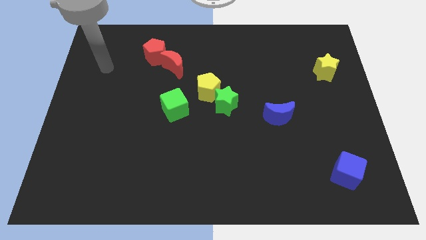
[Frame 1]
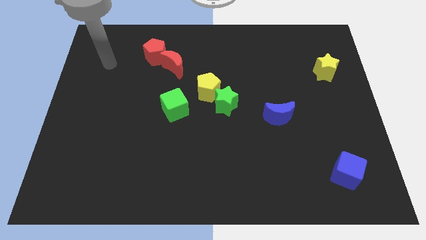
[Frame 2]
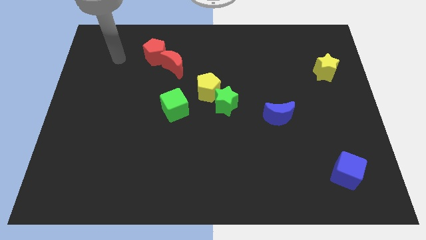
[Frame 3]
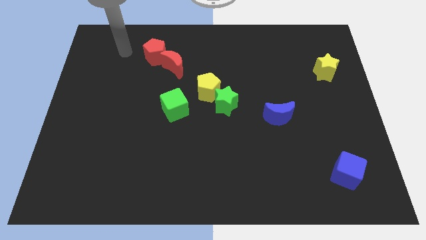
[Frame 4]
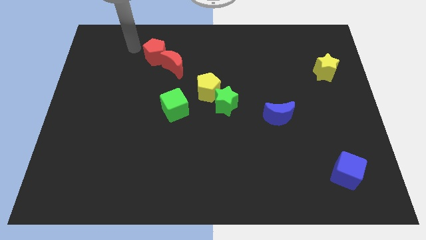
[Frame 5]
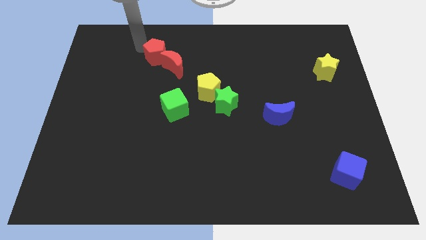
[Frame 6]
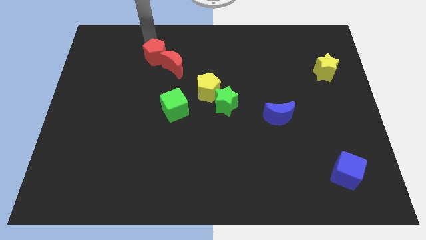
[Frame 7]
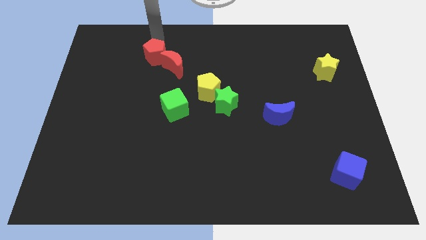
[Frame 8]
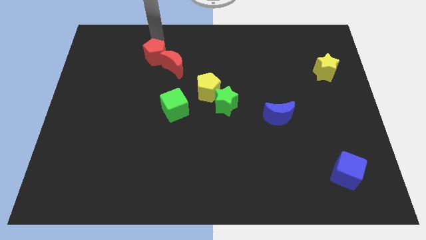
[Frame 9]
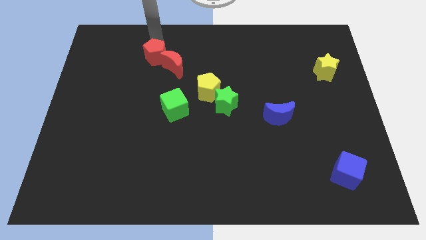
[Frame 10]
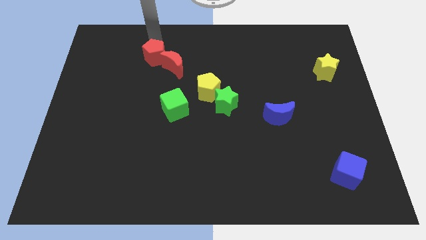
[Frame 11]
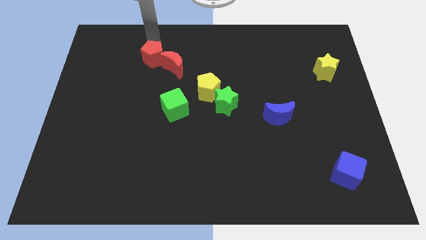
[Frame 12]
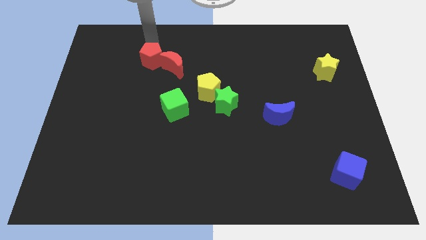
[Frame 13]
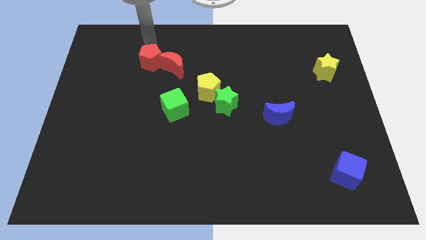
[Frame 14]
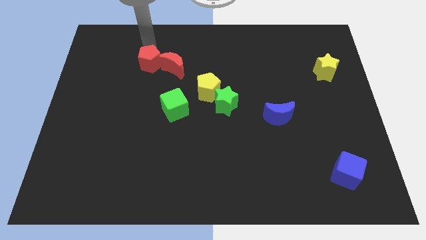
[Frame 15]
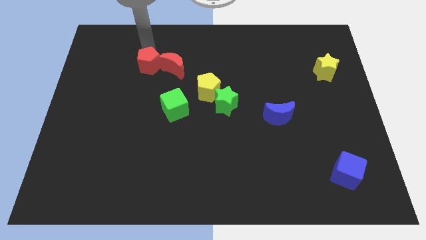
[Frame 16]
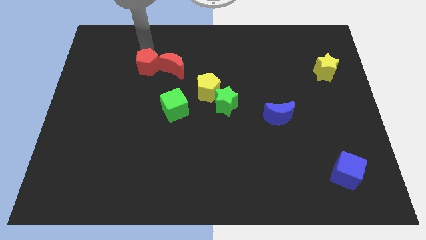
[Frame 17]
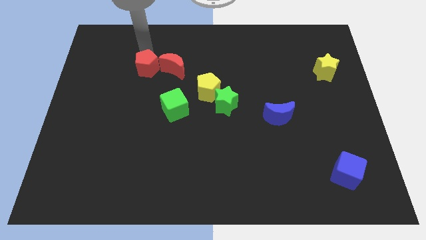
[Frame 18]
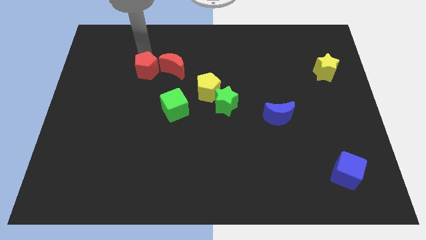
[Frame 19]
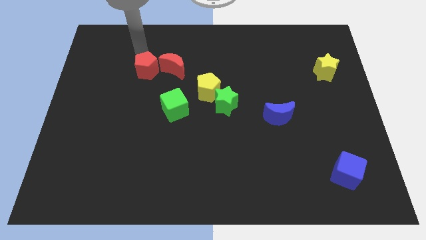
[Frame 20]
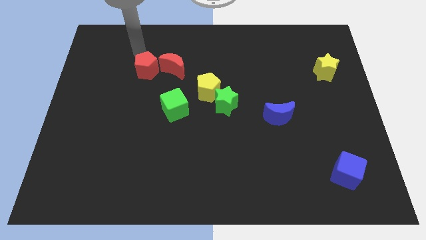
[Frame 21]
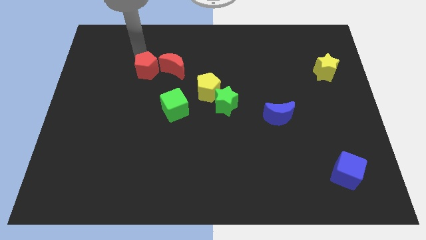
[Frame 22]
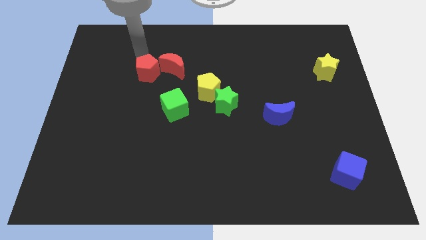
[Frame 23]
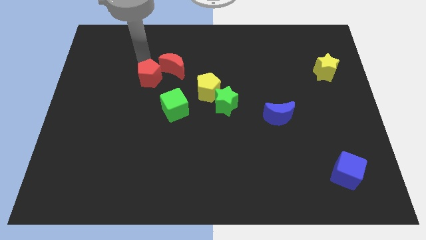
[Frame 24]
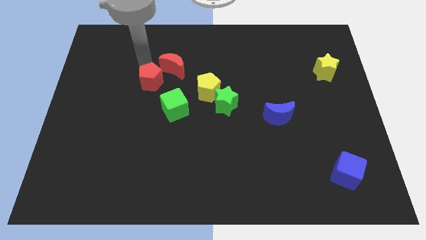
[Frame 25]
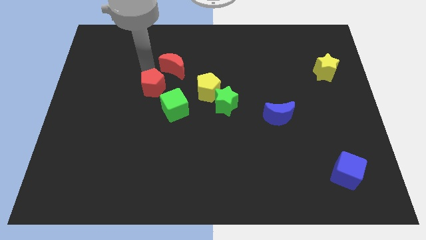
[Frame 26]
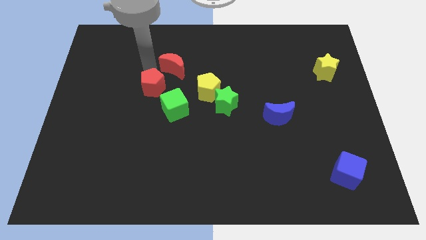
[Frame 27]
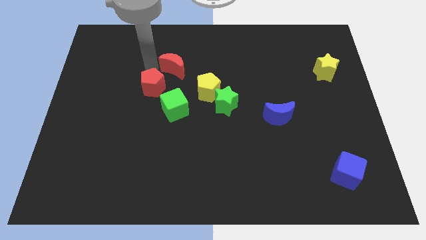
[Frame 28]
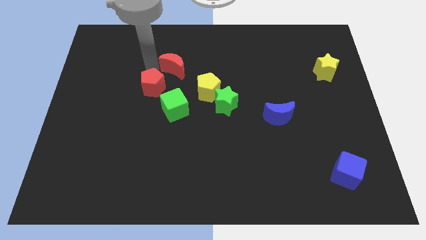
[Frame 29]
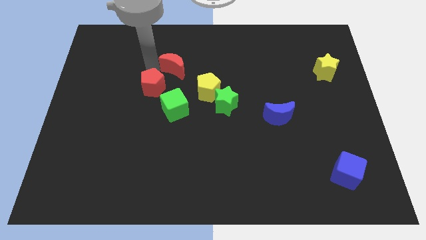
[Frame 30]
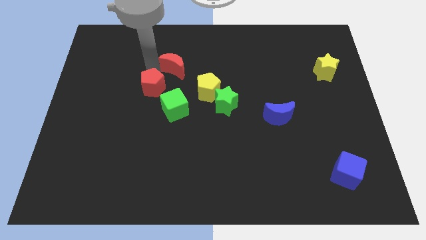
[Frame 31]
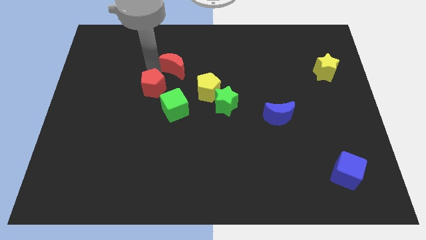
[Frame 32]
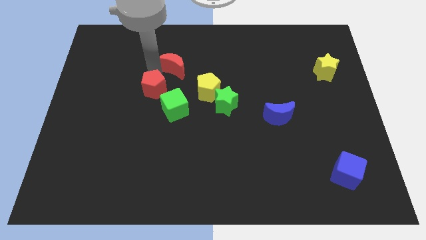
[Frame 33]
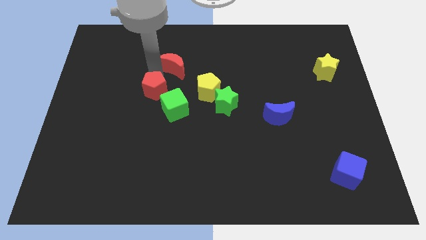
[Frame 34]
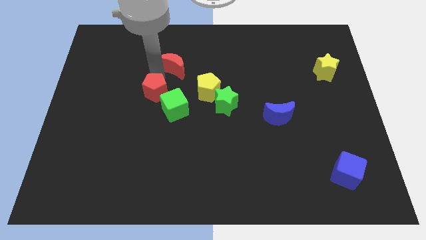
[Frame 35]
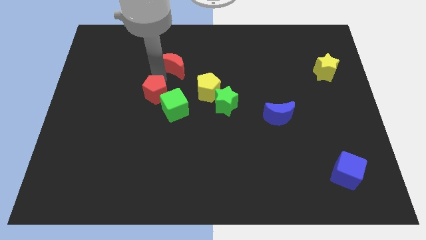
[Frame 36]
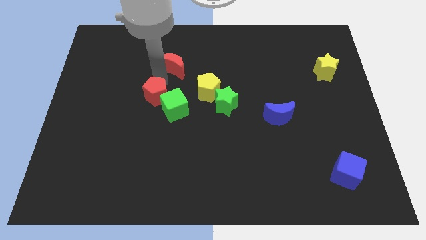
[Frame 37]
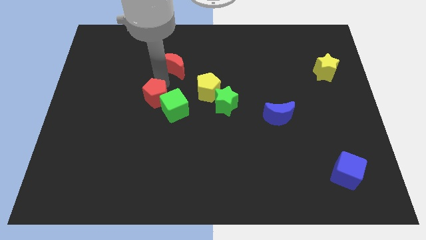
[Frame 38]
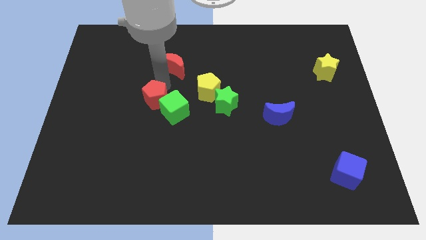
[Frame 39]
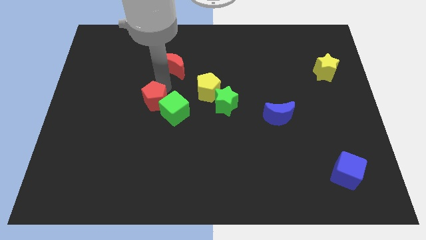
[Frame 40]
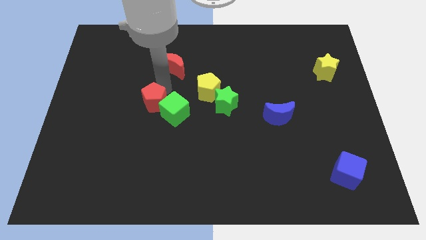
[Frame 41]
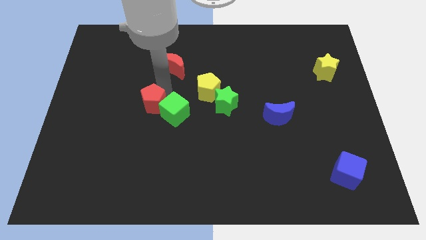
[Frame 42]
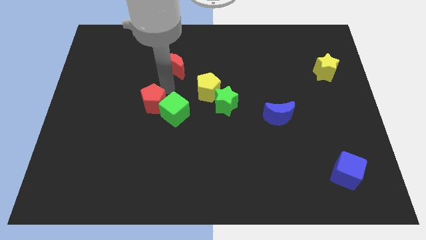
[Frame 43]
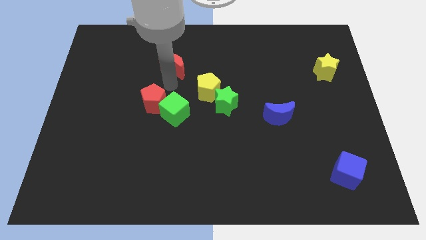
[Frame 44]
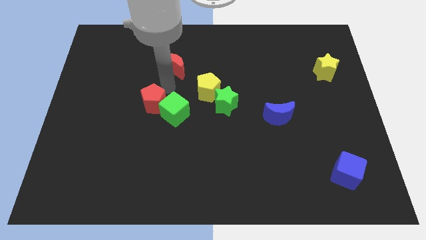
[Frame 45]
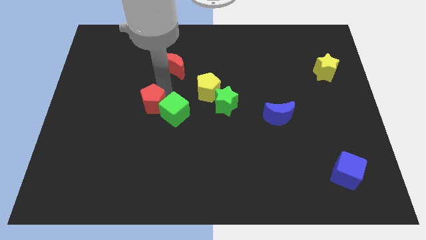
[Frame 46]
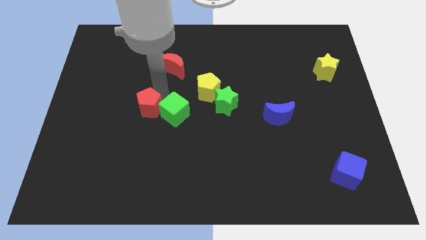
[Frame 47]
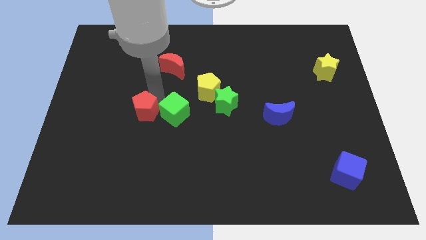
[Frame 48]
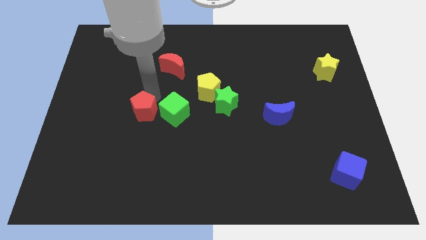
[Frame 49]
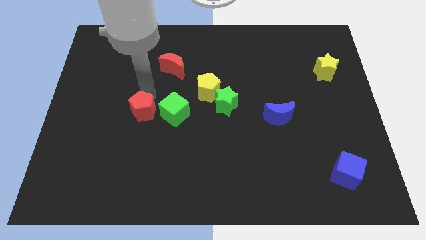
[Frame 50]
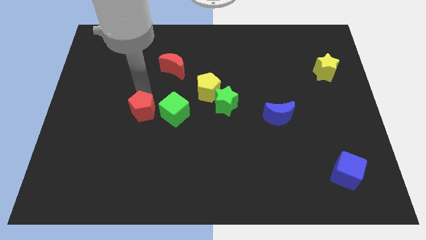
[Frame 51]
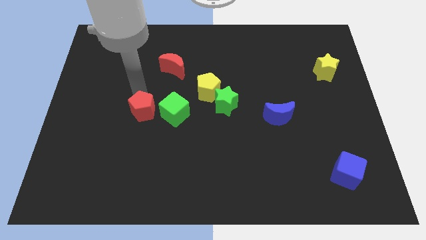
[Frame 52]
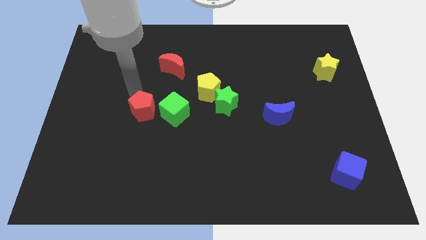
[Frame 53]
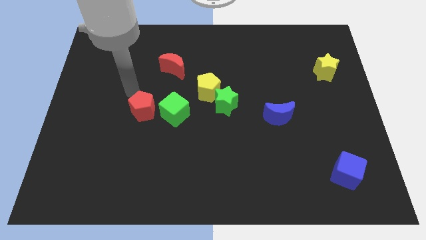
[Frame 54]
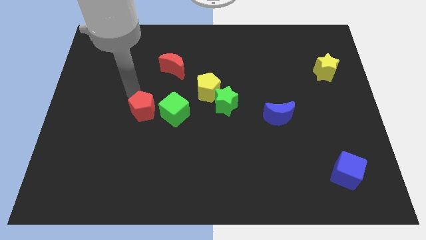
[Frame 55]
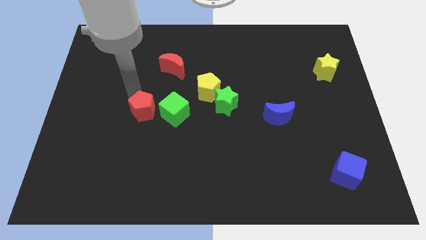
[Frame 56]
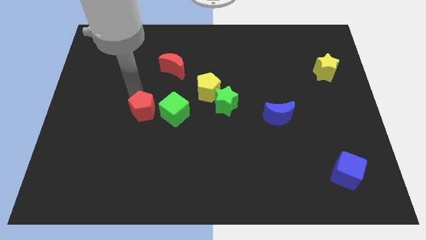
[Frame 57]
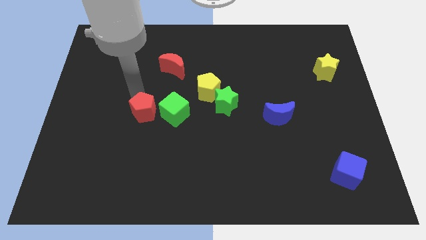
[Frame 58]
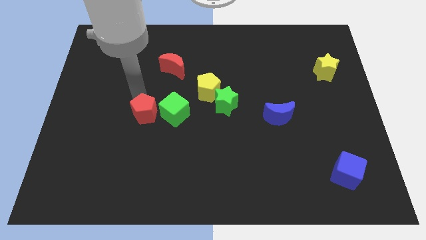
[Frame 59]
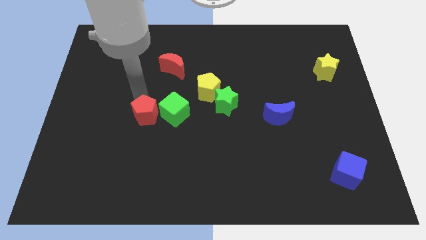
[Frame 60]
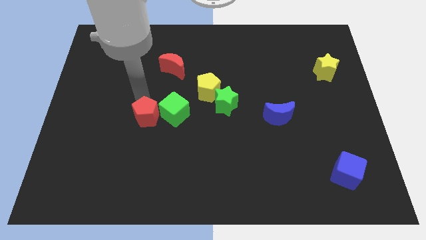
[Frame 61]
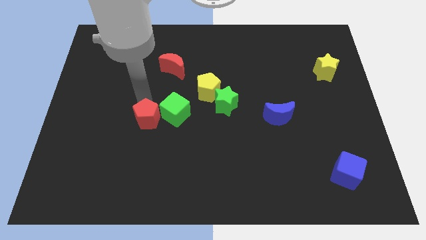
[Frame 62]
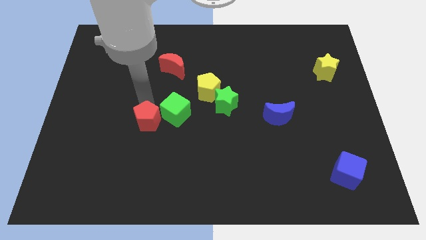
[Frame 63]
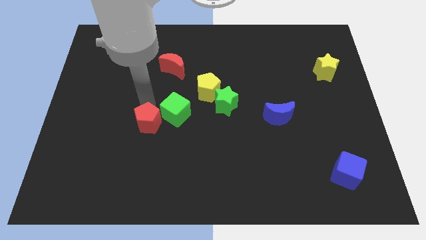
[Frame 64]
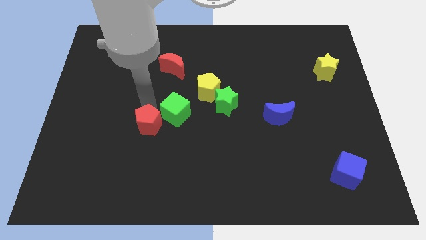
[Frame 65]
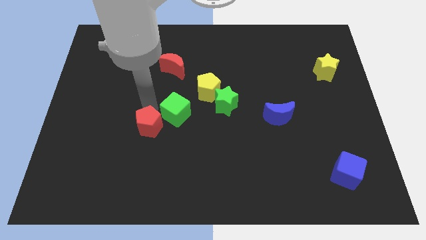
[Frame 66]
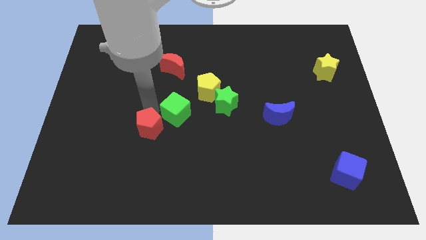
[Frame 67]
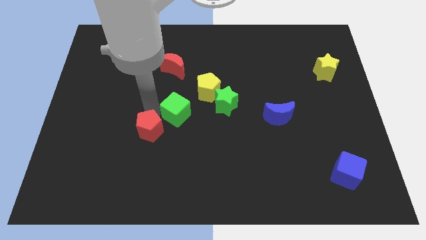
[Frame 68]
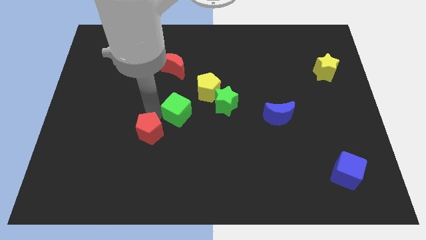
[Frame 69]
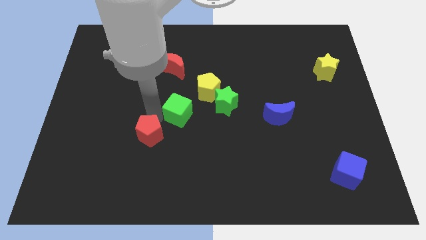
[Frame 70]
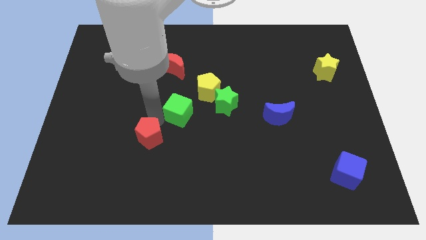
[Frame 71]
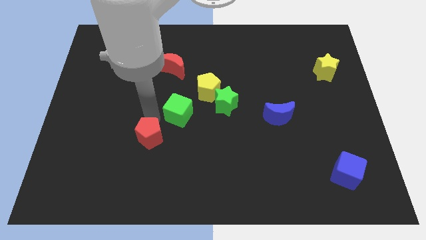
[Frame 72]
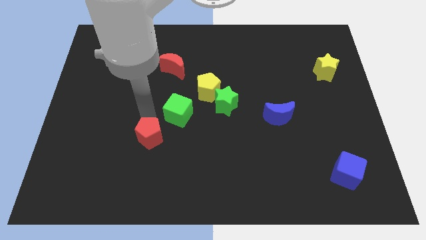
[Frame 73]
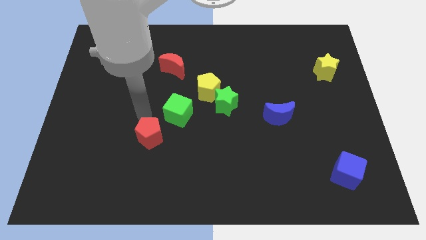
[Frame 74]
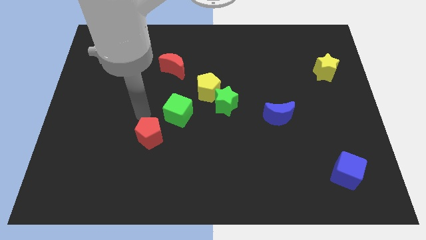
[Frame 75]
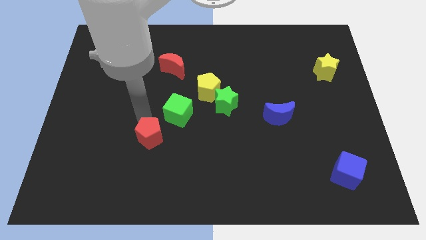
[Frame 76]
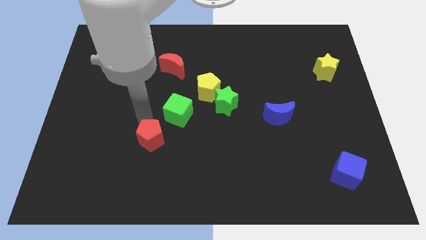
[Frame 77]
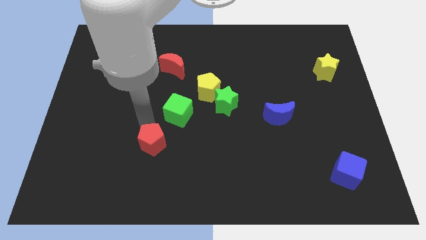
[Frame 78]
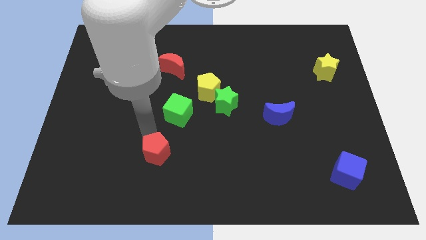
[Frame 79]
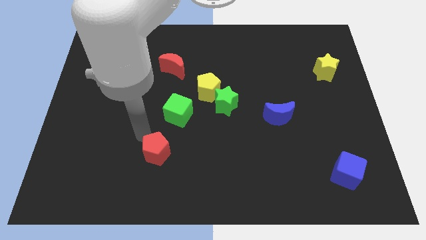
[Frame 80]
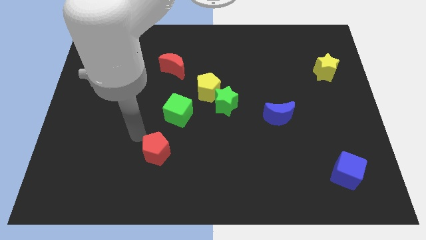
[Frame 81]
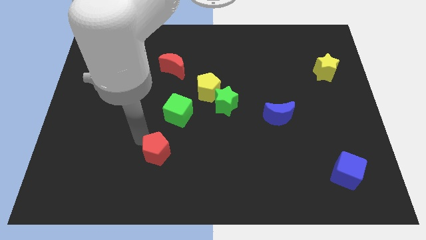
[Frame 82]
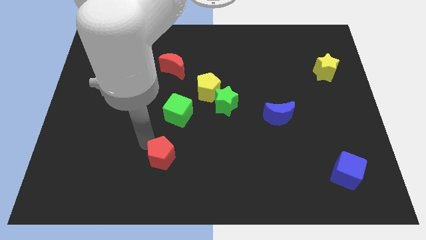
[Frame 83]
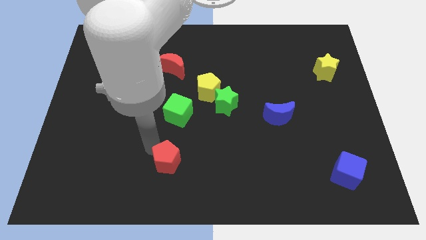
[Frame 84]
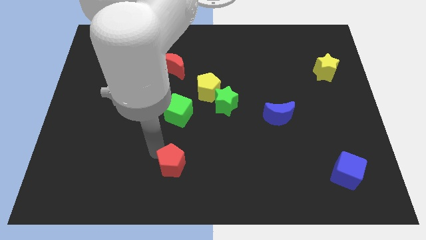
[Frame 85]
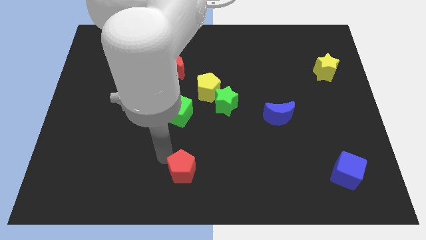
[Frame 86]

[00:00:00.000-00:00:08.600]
push the red pentagon to the bottom side
